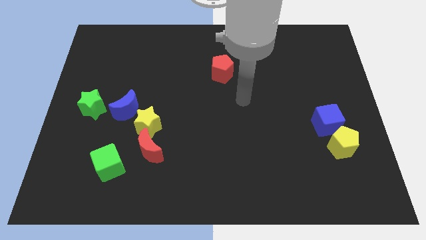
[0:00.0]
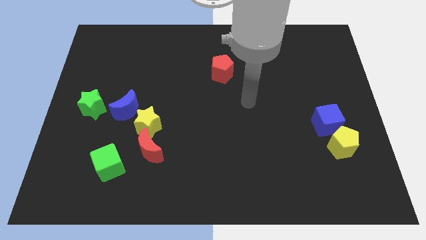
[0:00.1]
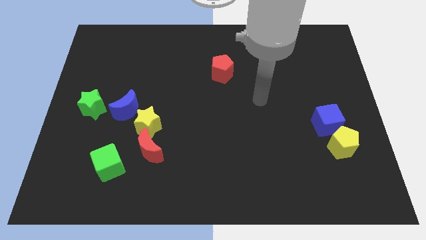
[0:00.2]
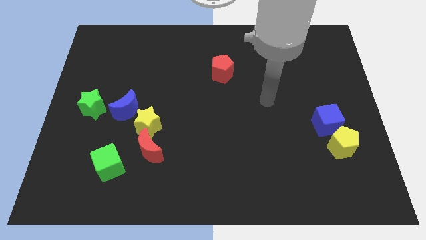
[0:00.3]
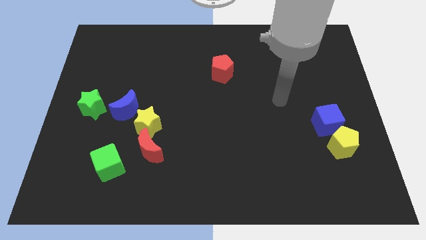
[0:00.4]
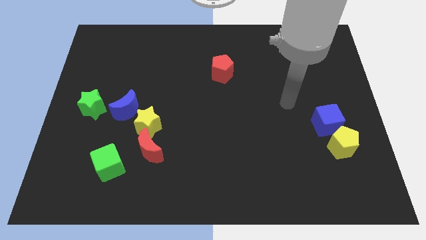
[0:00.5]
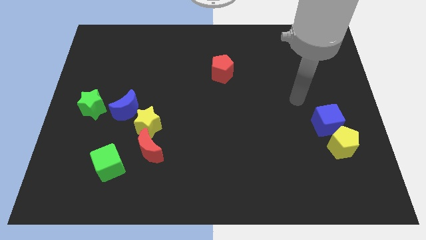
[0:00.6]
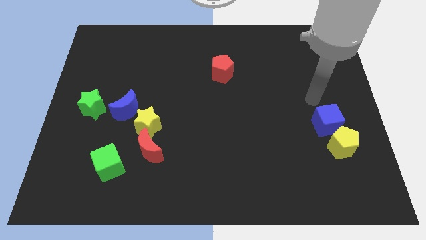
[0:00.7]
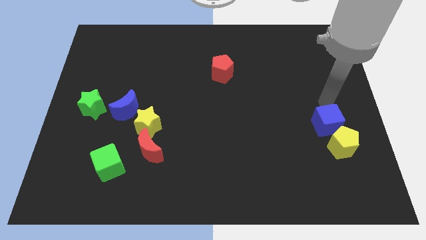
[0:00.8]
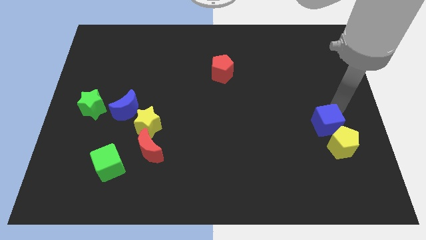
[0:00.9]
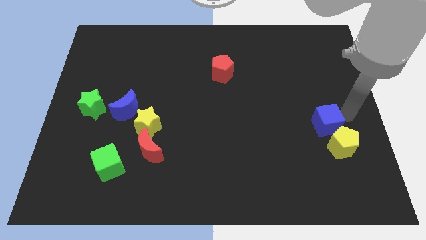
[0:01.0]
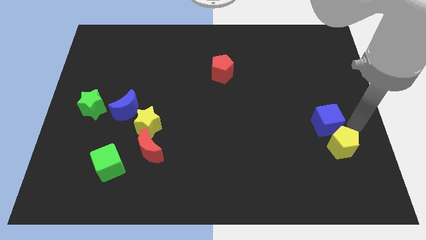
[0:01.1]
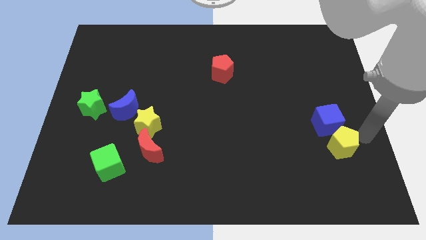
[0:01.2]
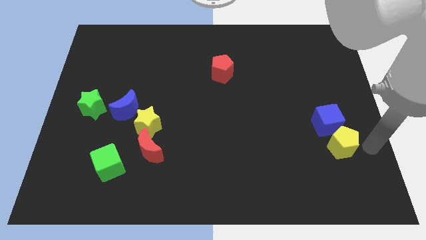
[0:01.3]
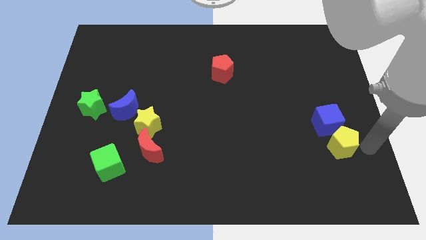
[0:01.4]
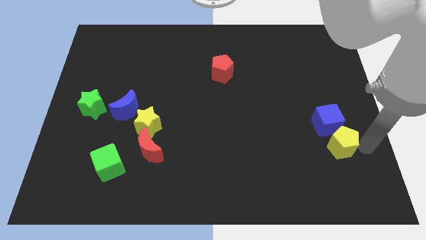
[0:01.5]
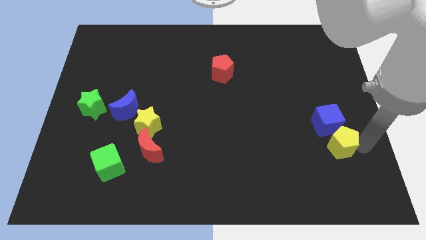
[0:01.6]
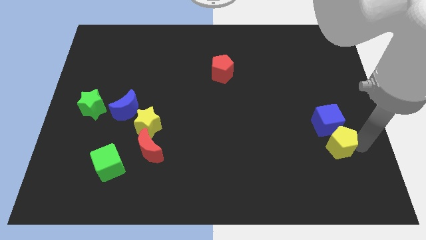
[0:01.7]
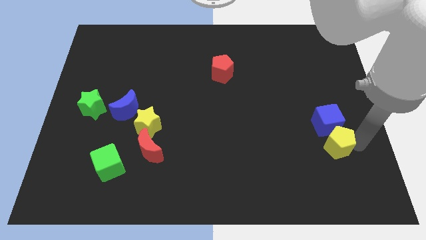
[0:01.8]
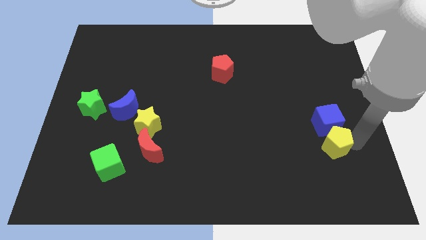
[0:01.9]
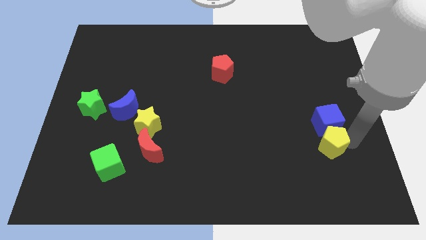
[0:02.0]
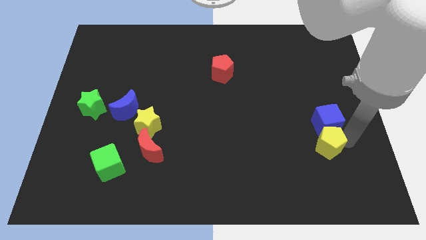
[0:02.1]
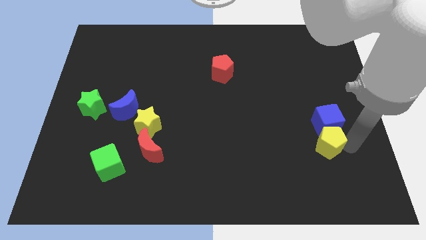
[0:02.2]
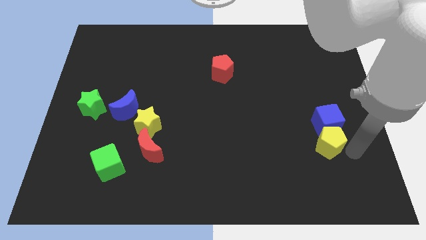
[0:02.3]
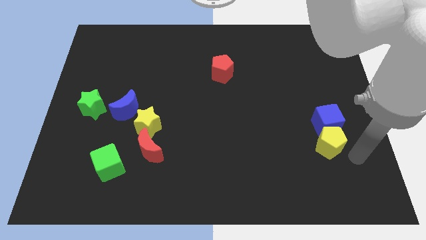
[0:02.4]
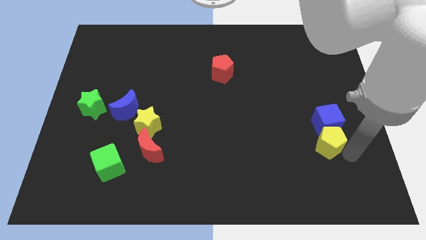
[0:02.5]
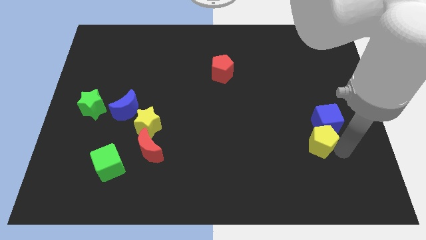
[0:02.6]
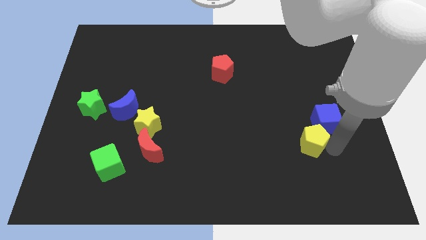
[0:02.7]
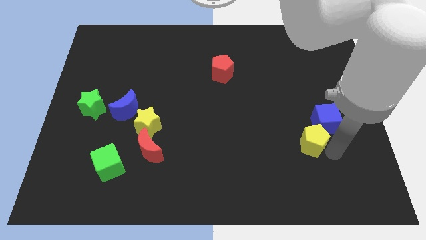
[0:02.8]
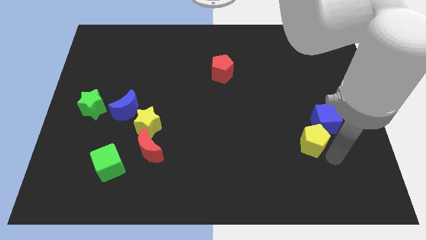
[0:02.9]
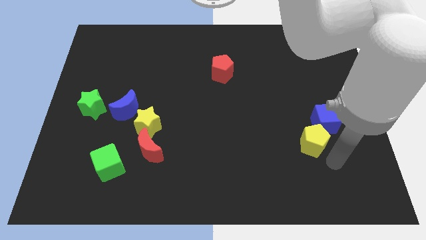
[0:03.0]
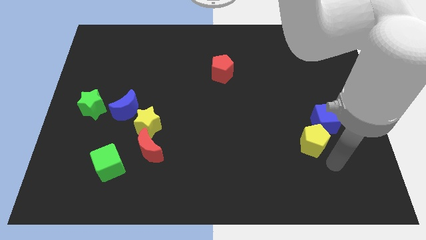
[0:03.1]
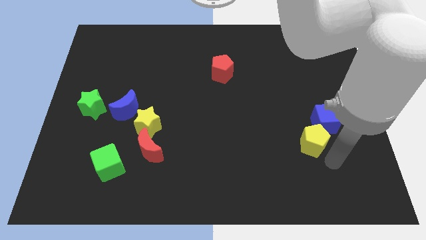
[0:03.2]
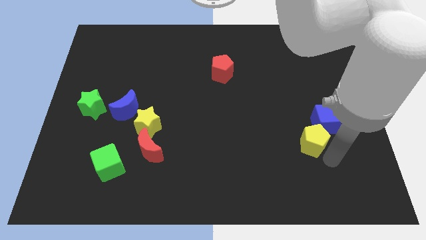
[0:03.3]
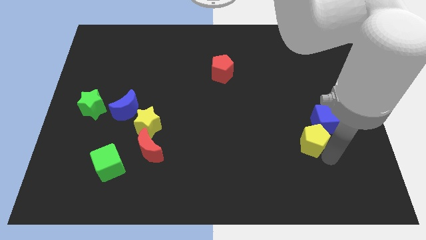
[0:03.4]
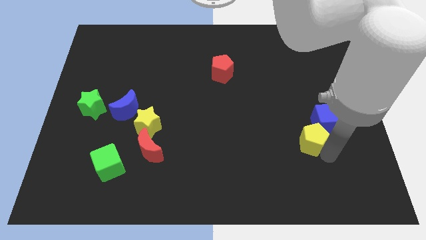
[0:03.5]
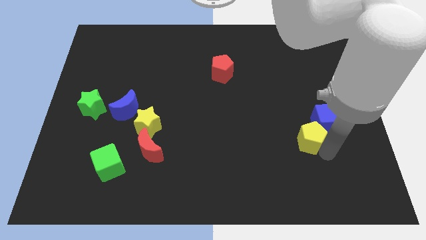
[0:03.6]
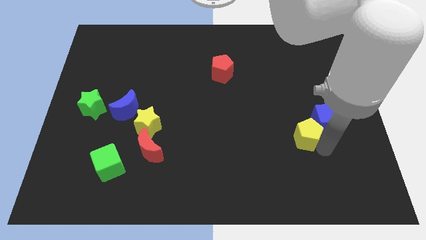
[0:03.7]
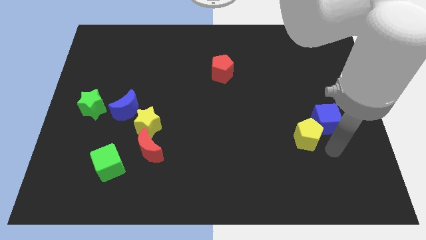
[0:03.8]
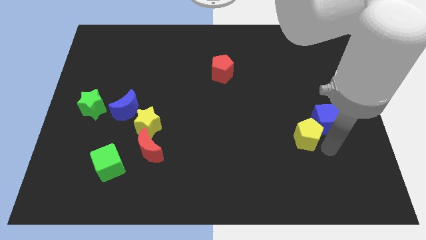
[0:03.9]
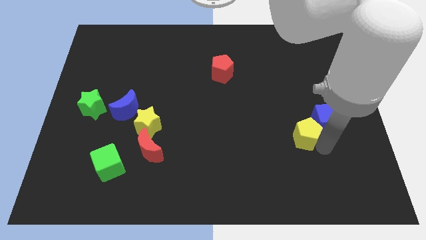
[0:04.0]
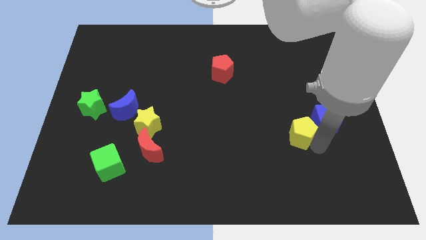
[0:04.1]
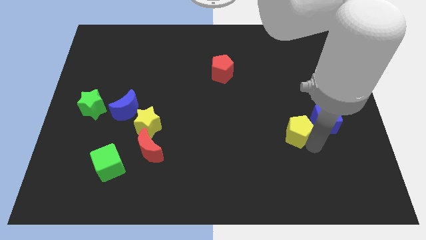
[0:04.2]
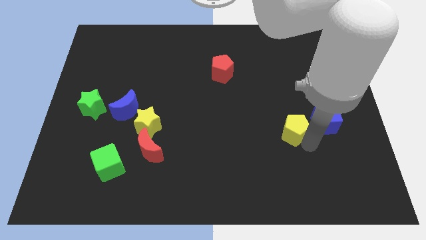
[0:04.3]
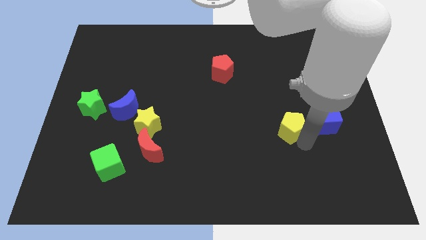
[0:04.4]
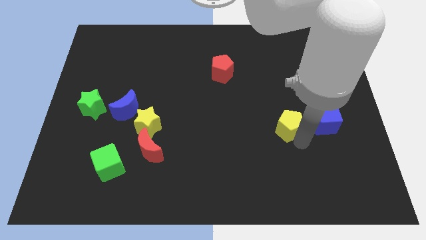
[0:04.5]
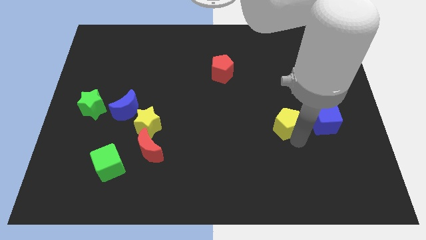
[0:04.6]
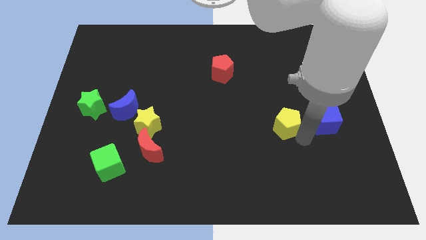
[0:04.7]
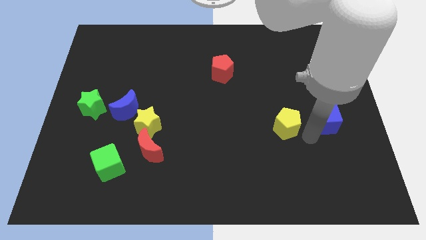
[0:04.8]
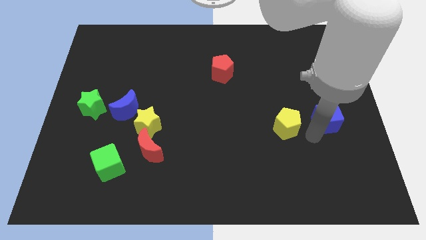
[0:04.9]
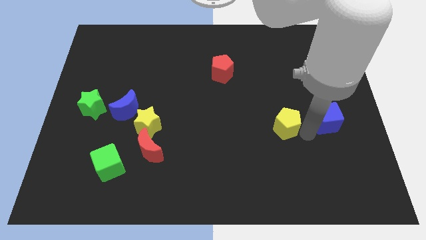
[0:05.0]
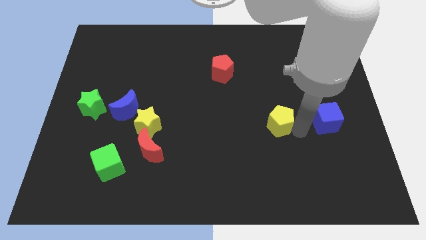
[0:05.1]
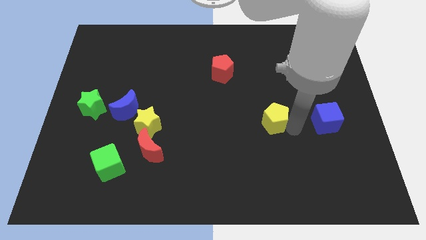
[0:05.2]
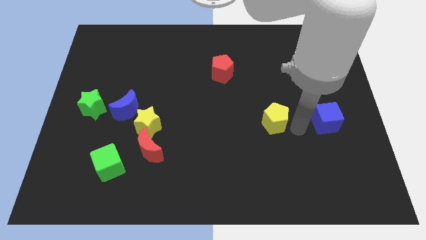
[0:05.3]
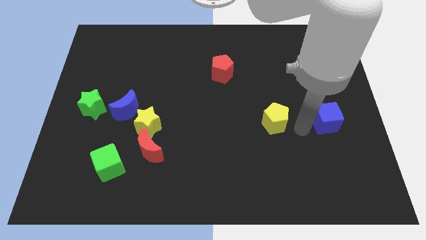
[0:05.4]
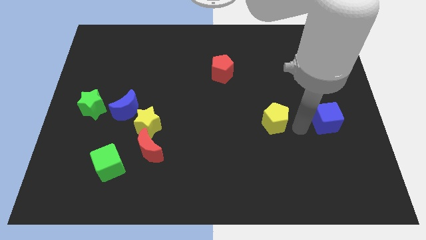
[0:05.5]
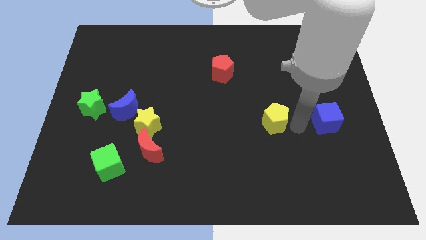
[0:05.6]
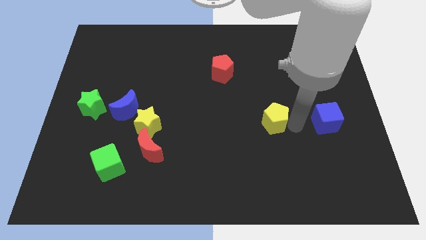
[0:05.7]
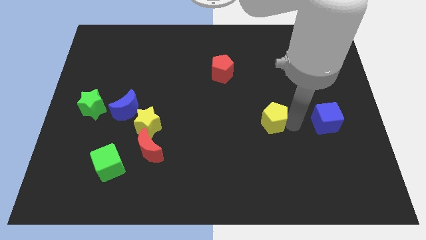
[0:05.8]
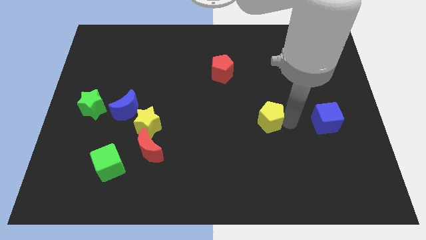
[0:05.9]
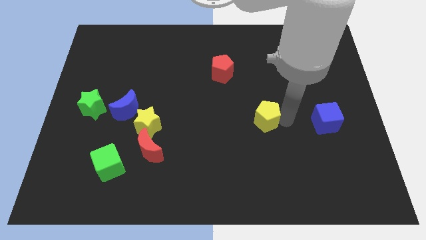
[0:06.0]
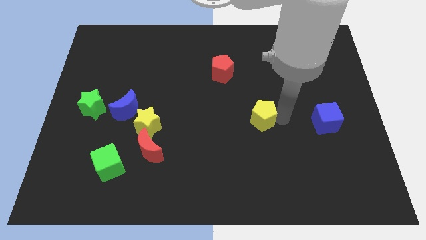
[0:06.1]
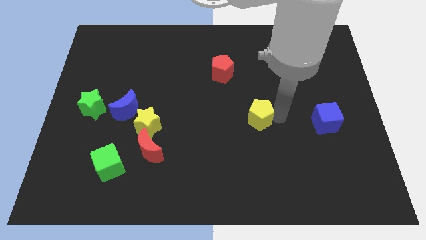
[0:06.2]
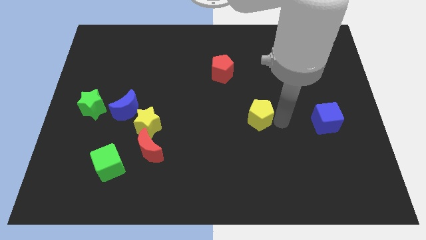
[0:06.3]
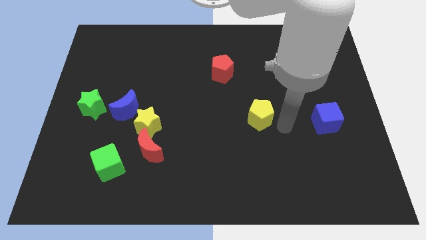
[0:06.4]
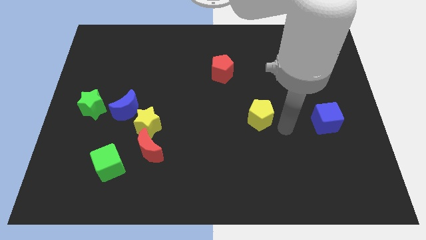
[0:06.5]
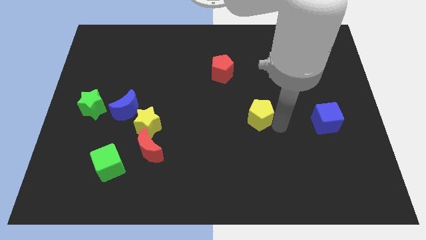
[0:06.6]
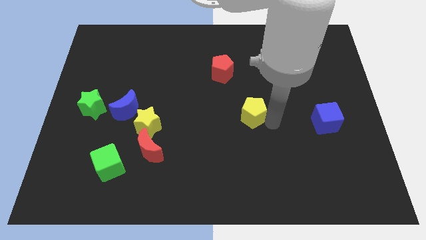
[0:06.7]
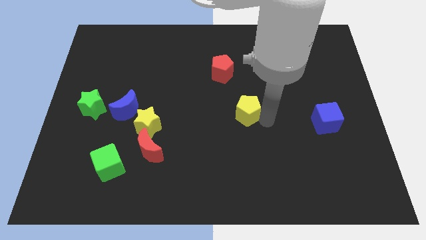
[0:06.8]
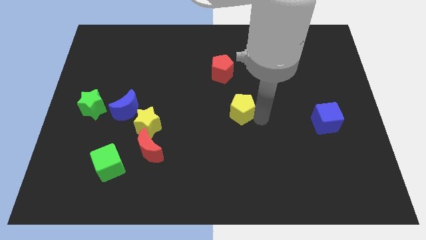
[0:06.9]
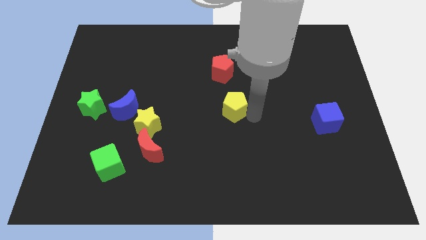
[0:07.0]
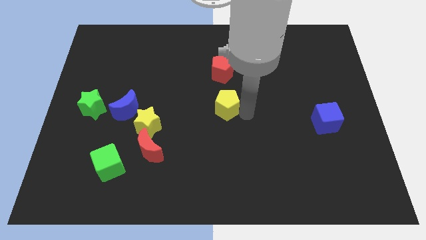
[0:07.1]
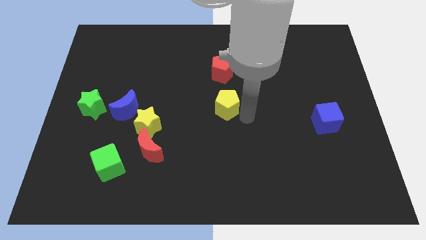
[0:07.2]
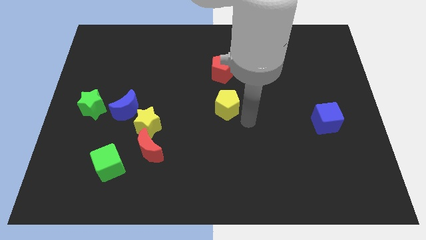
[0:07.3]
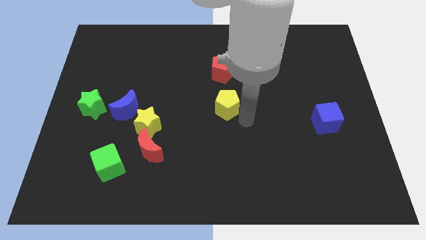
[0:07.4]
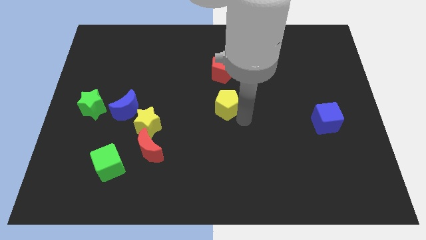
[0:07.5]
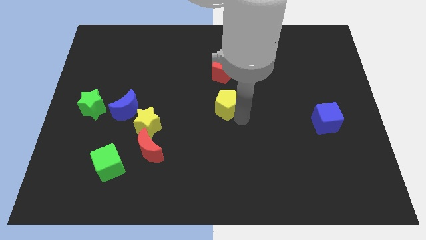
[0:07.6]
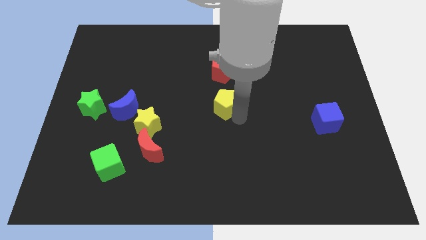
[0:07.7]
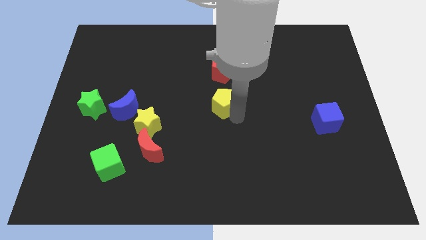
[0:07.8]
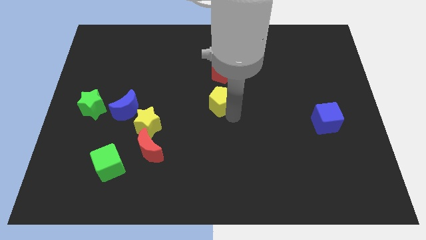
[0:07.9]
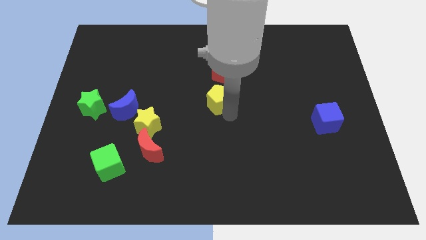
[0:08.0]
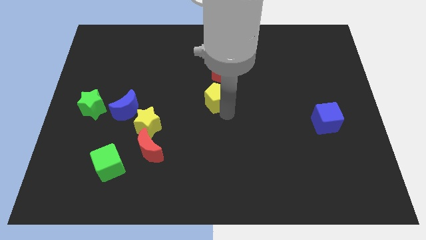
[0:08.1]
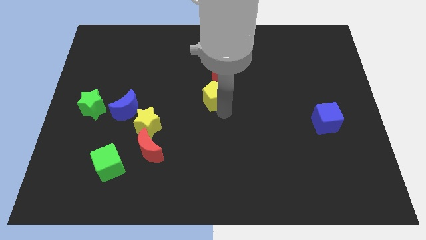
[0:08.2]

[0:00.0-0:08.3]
slide the yellow pentagon to the bottom left side of the red pentagon
